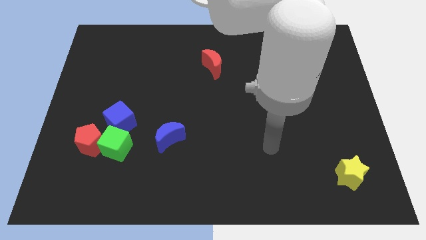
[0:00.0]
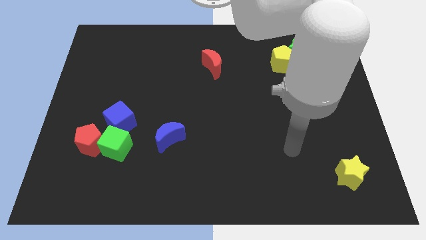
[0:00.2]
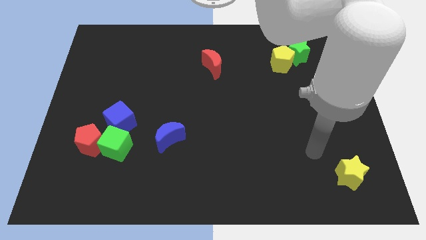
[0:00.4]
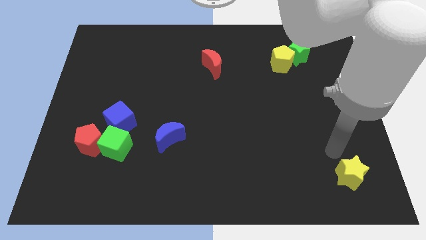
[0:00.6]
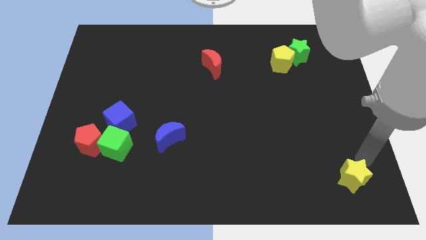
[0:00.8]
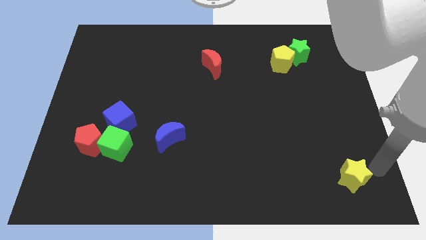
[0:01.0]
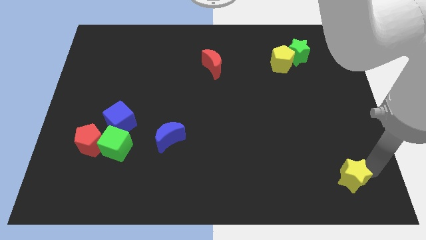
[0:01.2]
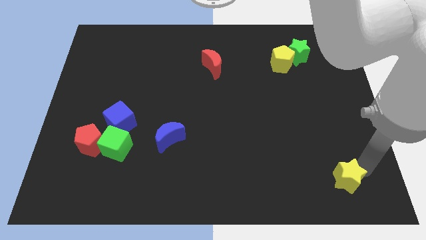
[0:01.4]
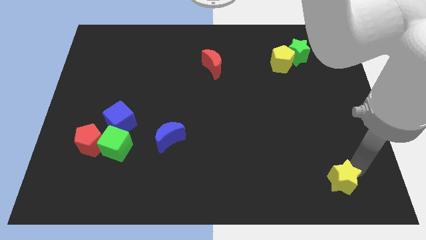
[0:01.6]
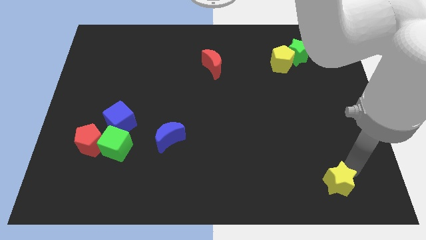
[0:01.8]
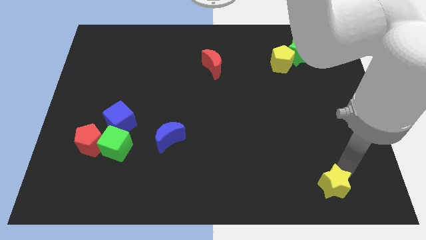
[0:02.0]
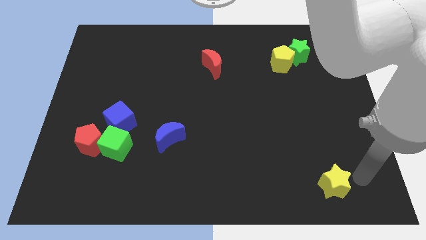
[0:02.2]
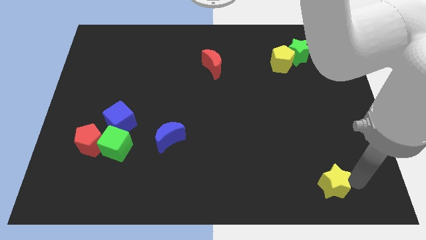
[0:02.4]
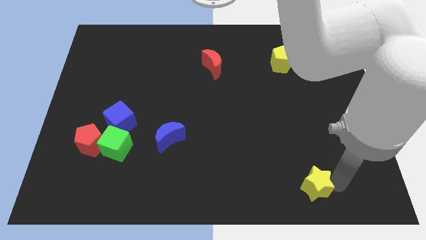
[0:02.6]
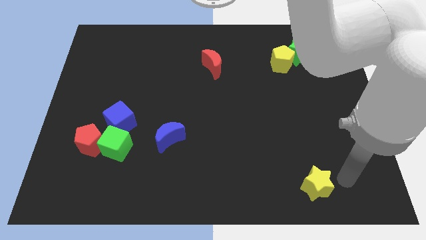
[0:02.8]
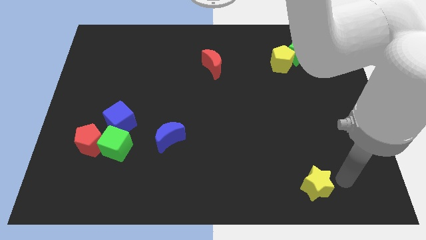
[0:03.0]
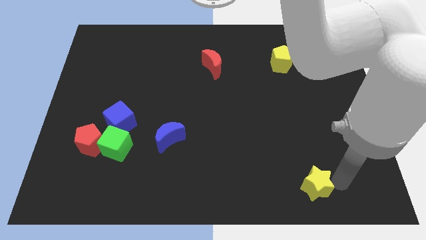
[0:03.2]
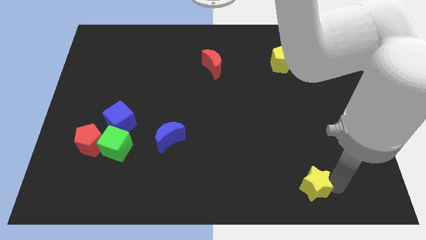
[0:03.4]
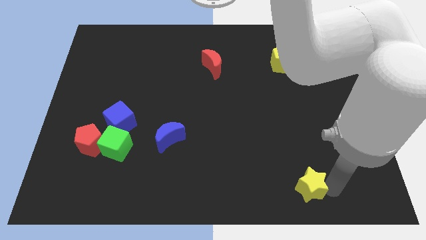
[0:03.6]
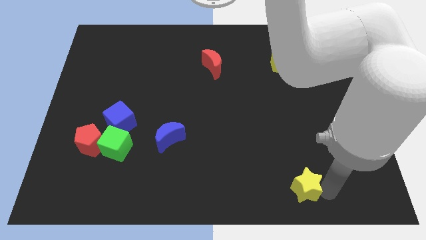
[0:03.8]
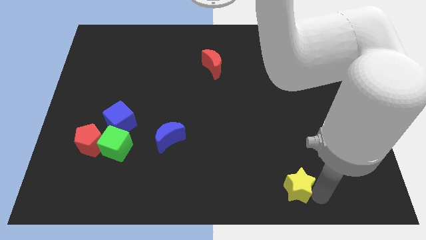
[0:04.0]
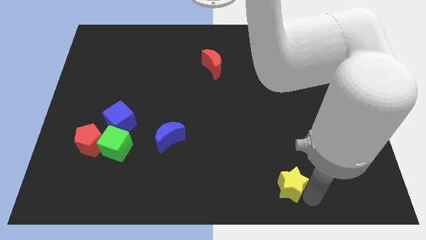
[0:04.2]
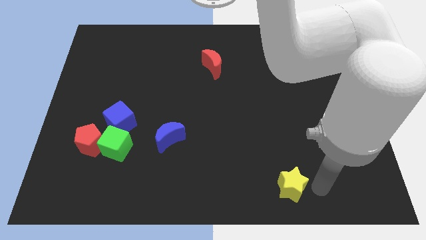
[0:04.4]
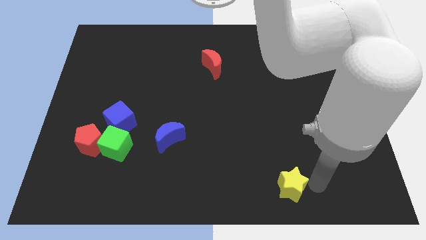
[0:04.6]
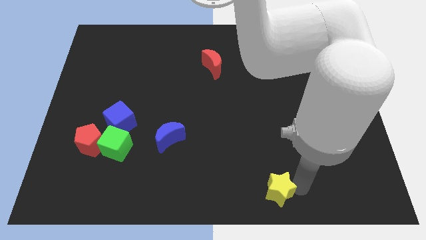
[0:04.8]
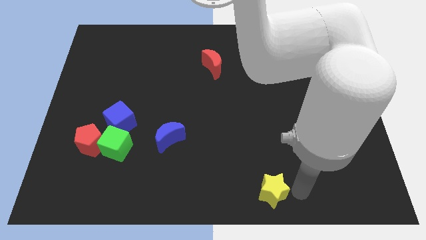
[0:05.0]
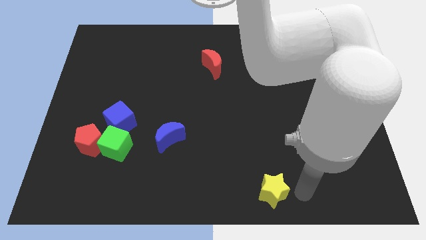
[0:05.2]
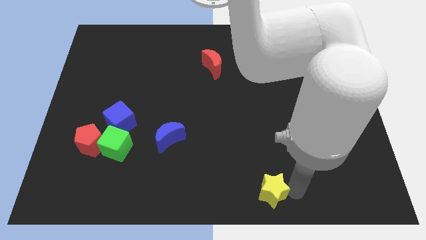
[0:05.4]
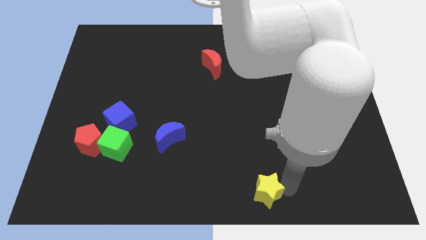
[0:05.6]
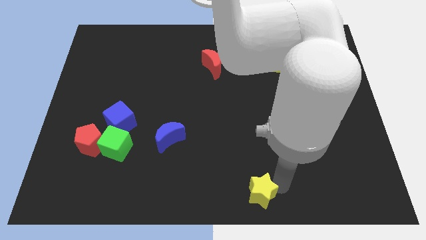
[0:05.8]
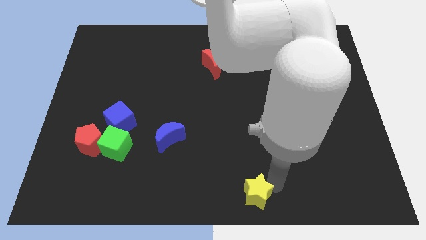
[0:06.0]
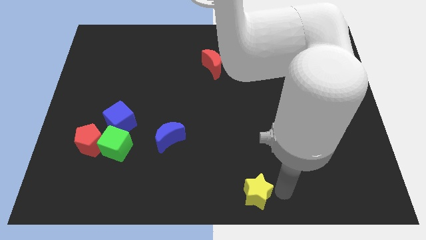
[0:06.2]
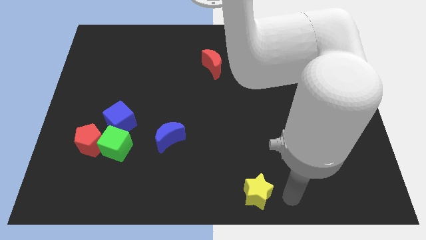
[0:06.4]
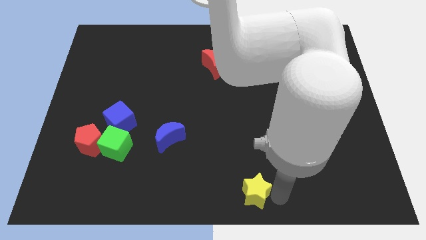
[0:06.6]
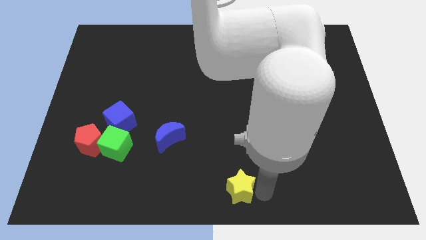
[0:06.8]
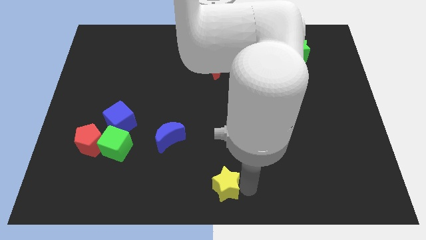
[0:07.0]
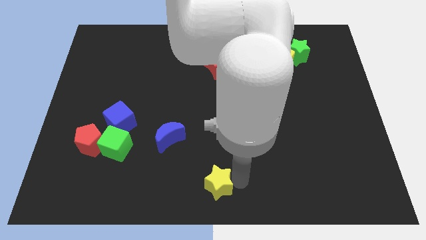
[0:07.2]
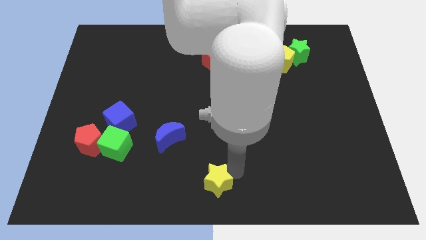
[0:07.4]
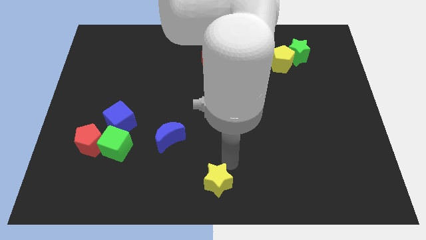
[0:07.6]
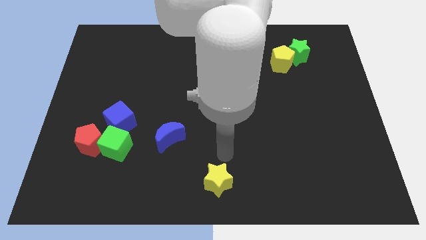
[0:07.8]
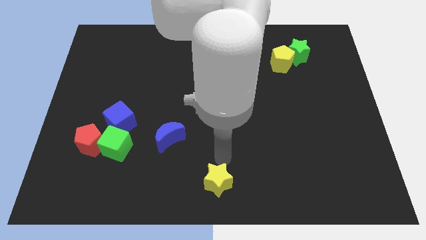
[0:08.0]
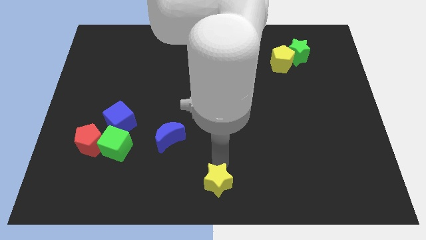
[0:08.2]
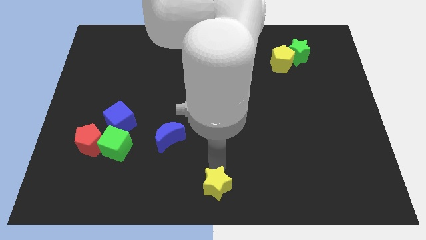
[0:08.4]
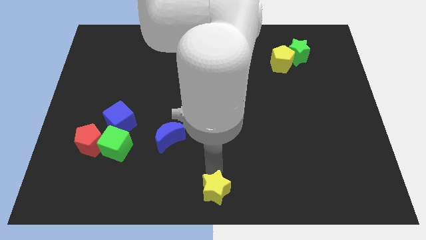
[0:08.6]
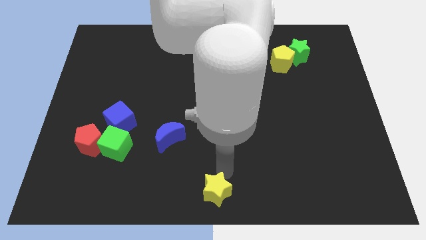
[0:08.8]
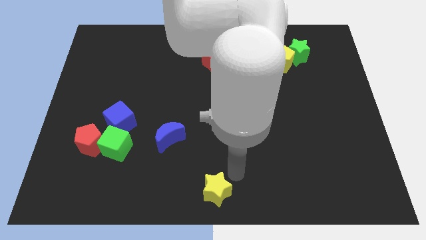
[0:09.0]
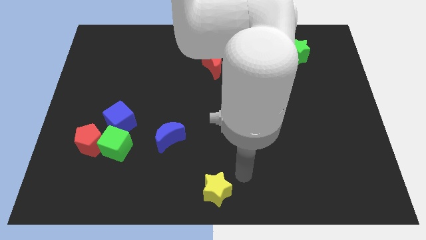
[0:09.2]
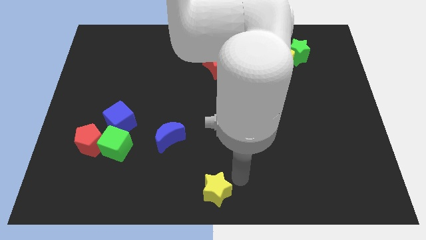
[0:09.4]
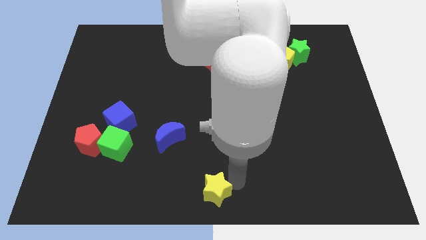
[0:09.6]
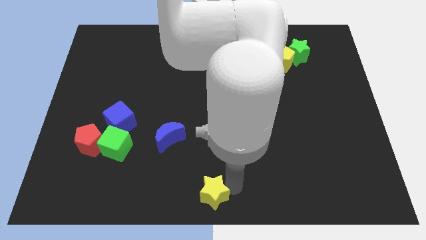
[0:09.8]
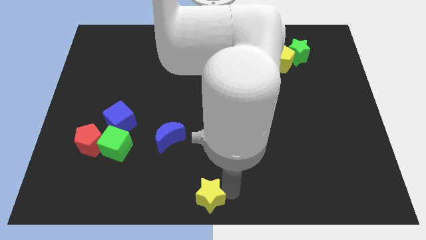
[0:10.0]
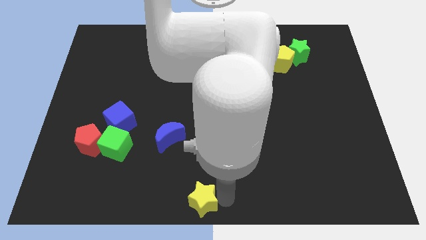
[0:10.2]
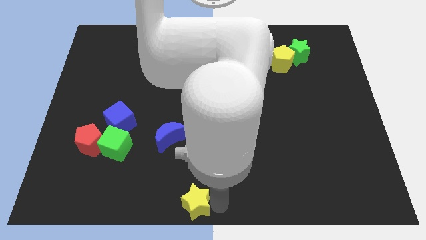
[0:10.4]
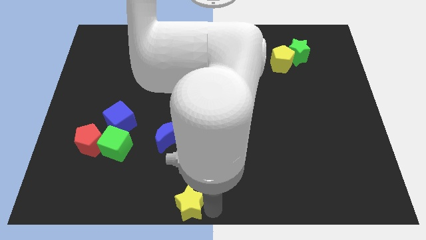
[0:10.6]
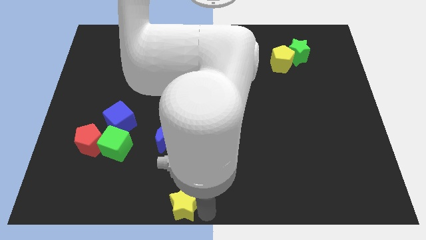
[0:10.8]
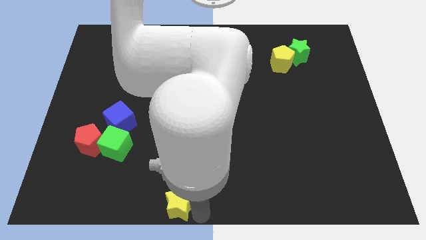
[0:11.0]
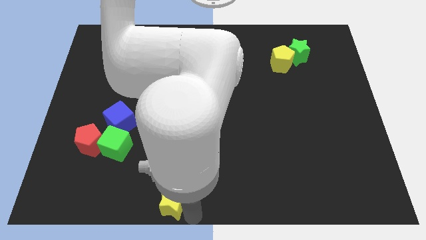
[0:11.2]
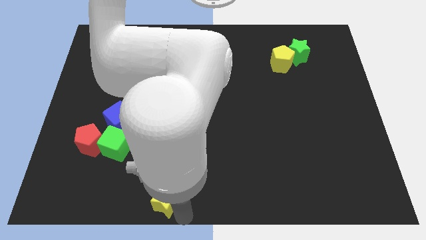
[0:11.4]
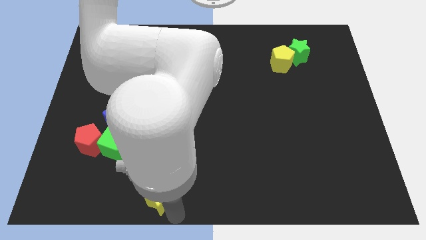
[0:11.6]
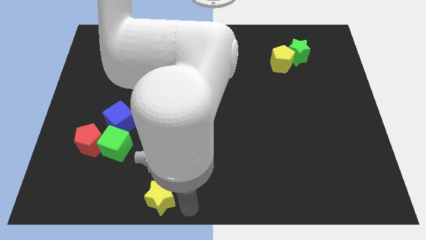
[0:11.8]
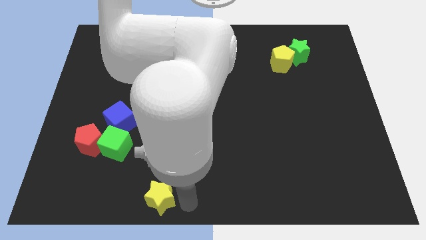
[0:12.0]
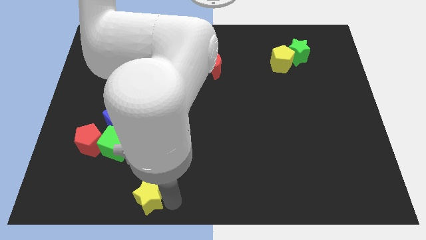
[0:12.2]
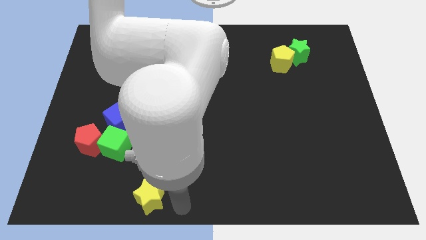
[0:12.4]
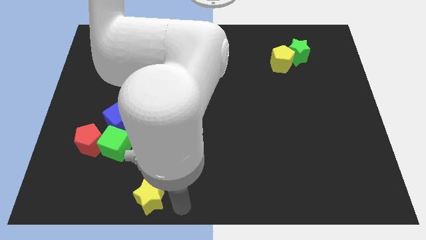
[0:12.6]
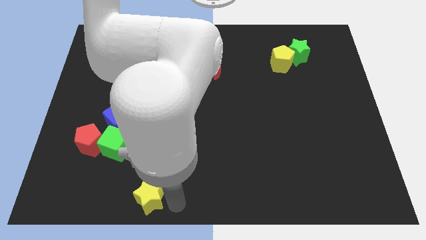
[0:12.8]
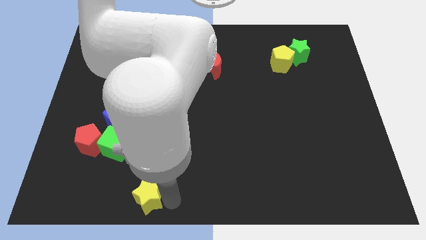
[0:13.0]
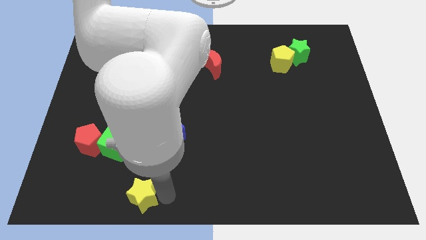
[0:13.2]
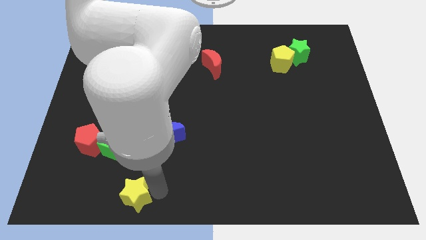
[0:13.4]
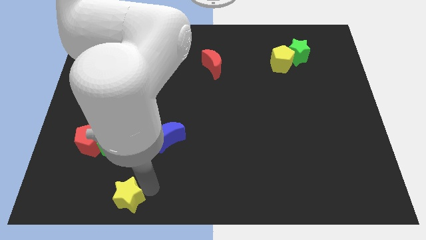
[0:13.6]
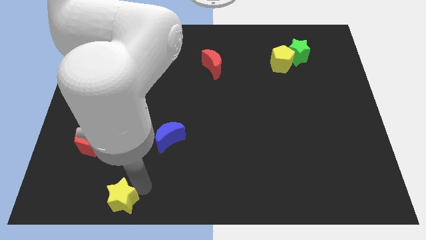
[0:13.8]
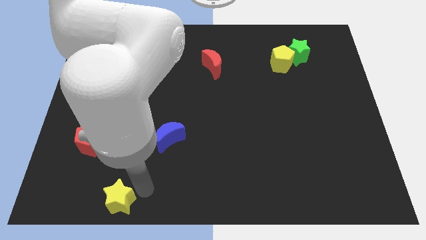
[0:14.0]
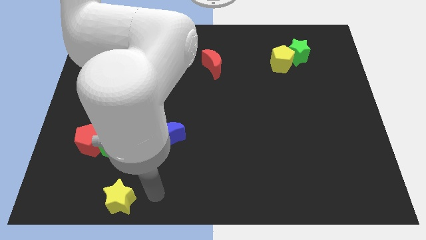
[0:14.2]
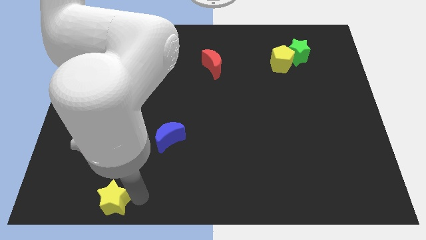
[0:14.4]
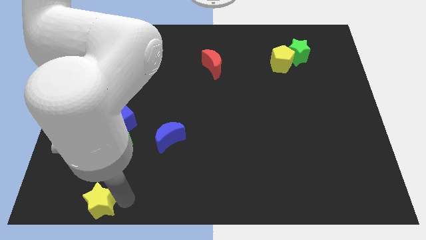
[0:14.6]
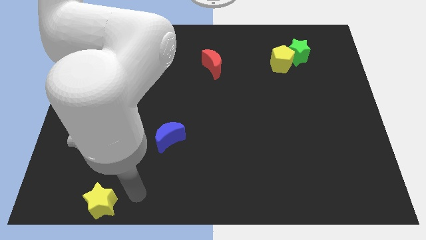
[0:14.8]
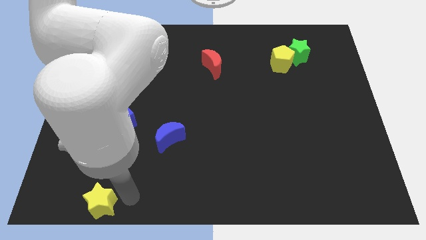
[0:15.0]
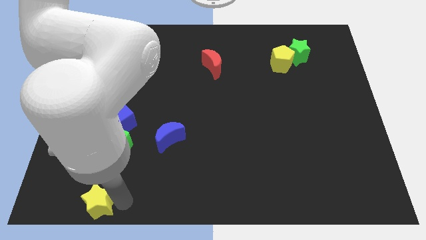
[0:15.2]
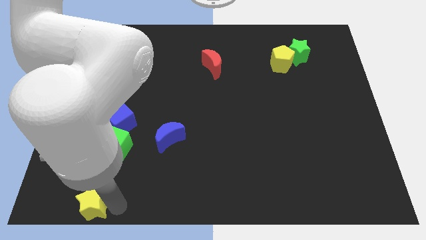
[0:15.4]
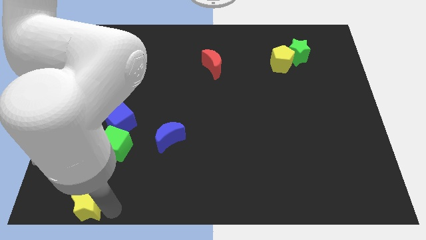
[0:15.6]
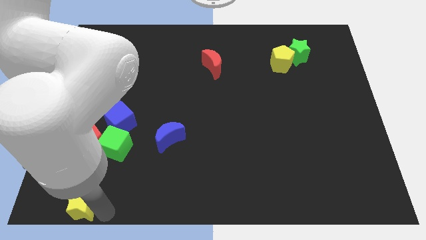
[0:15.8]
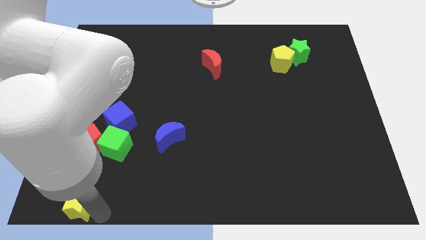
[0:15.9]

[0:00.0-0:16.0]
slide the yellow star to the lower left corner
